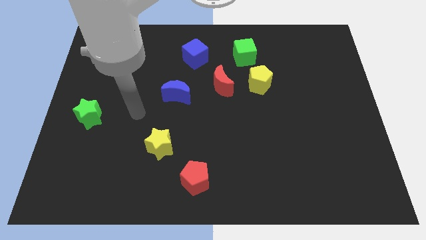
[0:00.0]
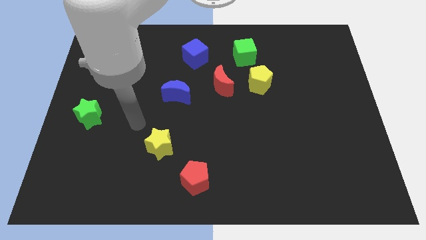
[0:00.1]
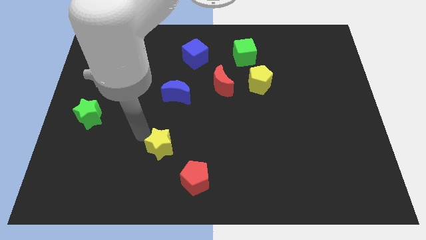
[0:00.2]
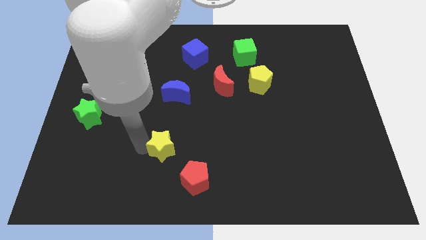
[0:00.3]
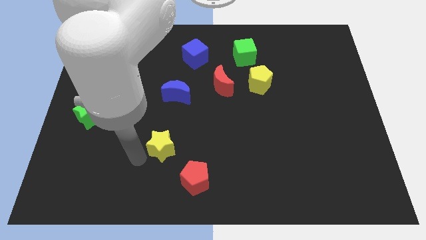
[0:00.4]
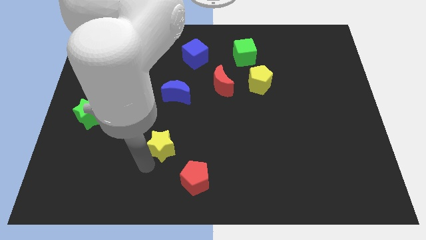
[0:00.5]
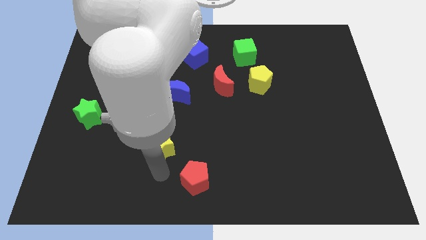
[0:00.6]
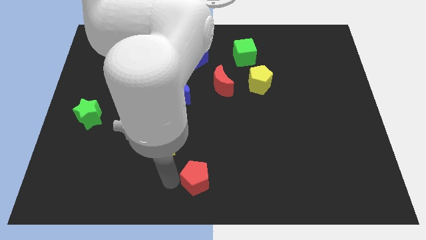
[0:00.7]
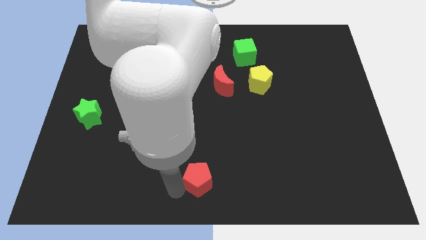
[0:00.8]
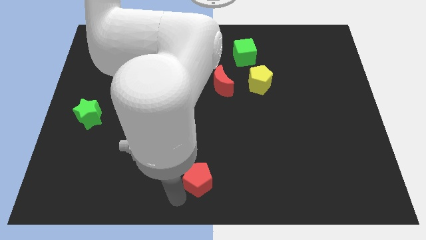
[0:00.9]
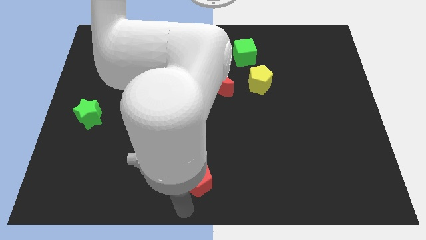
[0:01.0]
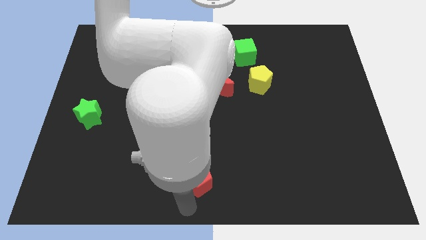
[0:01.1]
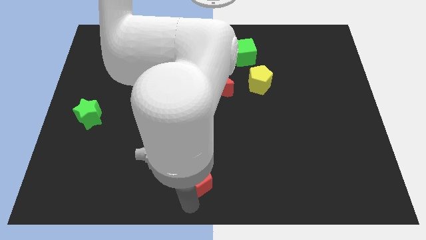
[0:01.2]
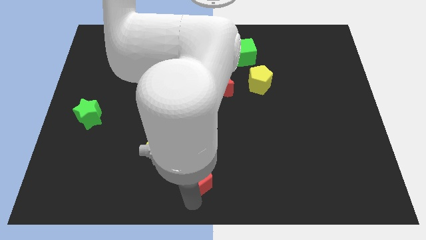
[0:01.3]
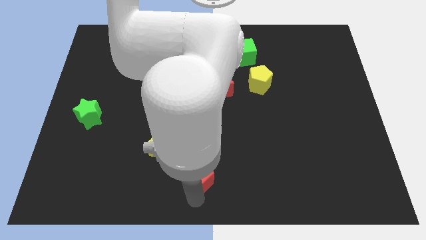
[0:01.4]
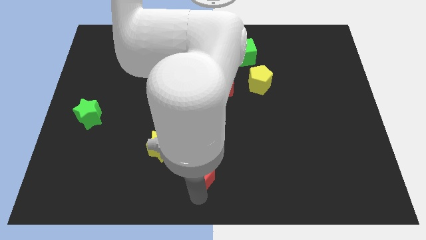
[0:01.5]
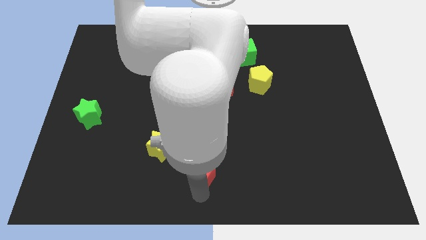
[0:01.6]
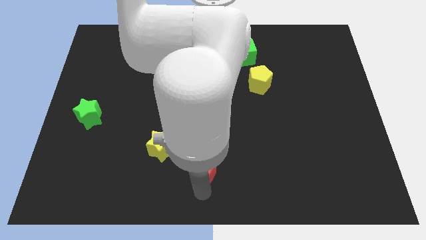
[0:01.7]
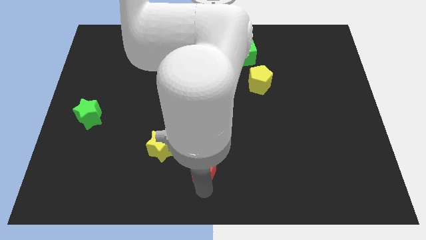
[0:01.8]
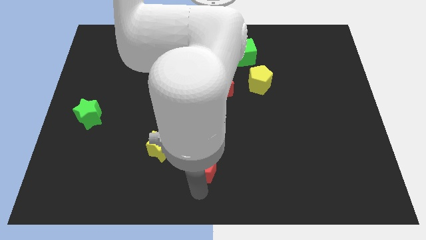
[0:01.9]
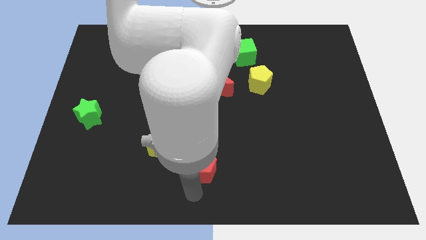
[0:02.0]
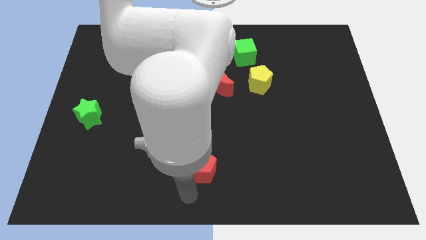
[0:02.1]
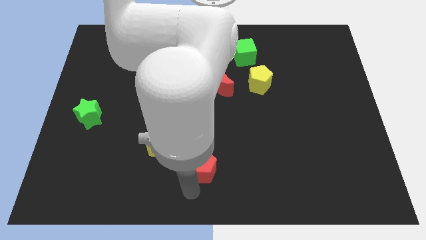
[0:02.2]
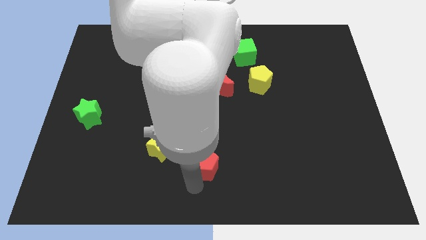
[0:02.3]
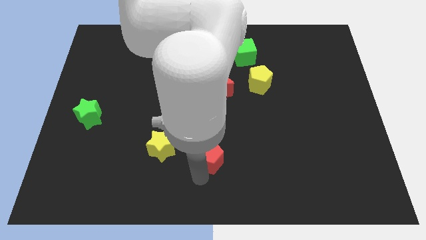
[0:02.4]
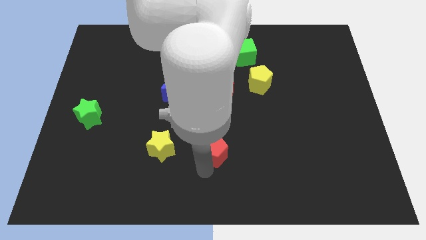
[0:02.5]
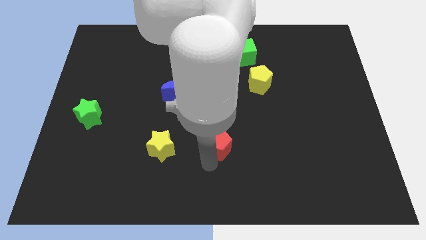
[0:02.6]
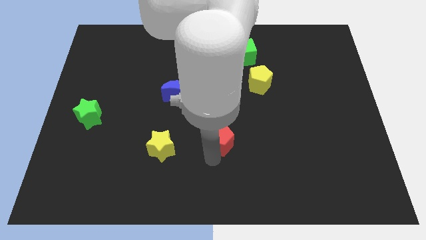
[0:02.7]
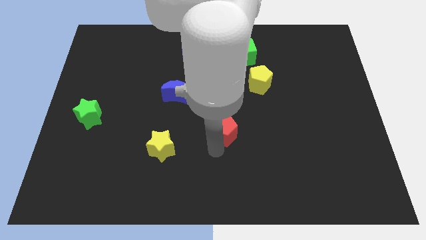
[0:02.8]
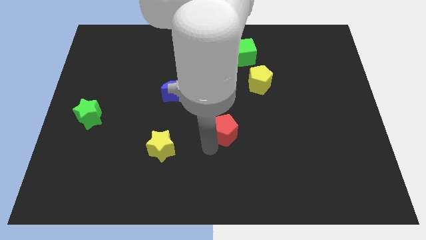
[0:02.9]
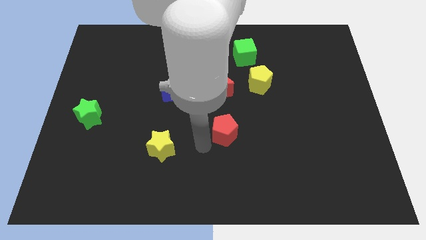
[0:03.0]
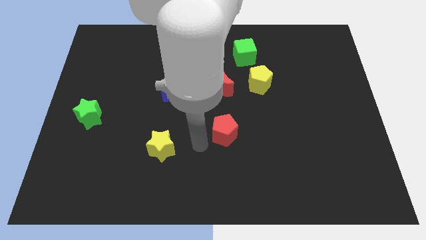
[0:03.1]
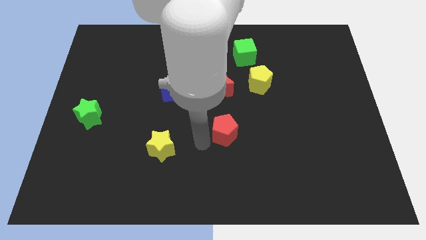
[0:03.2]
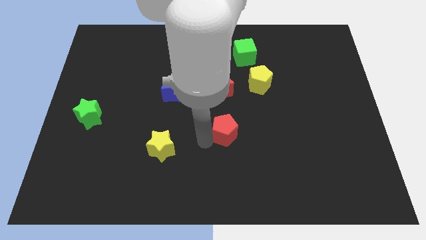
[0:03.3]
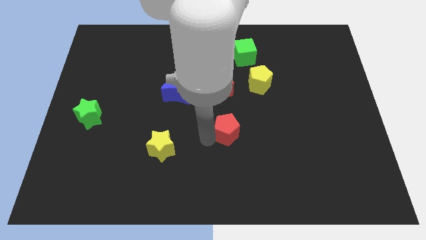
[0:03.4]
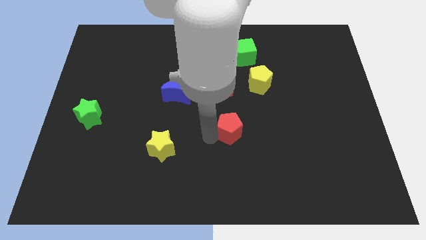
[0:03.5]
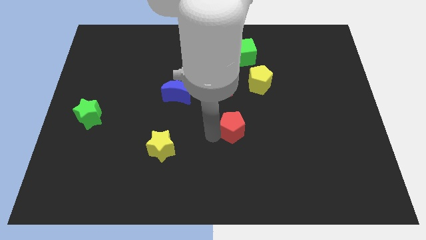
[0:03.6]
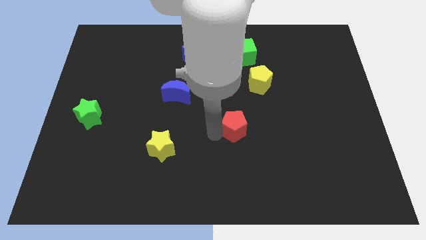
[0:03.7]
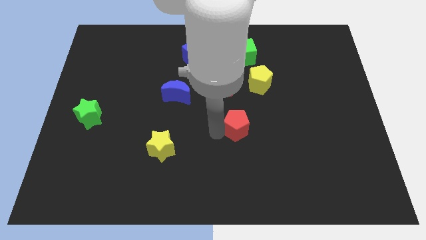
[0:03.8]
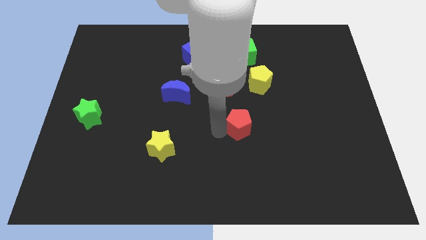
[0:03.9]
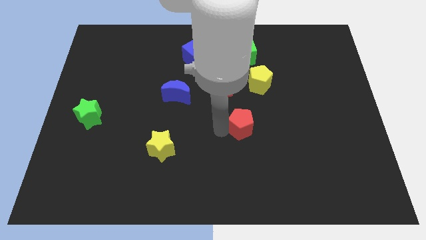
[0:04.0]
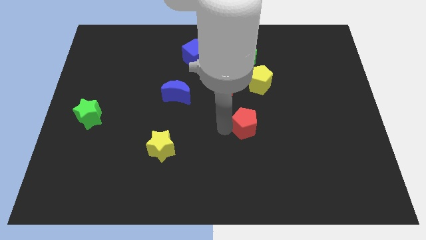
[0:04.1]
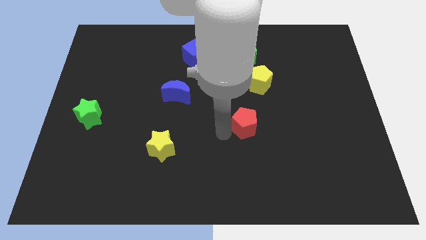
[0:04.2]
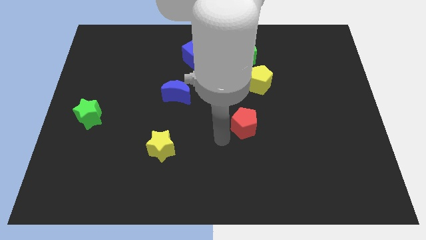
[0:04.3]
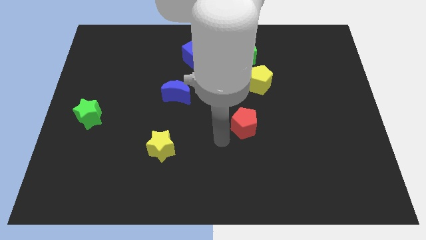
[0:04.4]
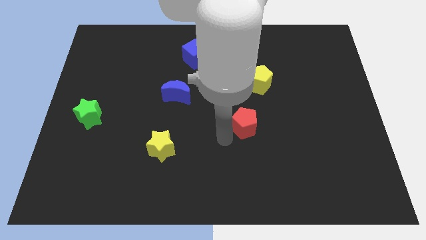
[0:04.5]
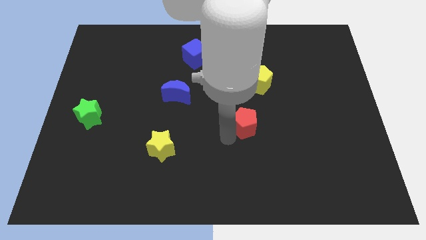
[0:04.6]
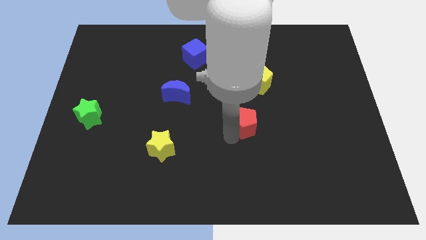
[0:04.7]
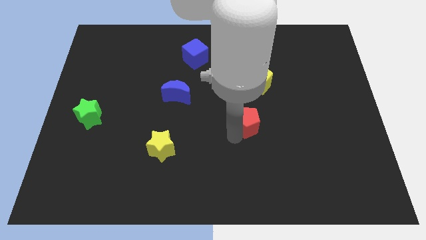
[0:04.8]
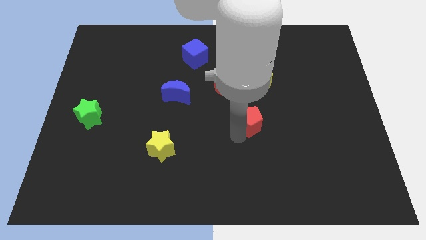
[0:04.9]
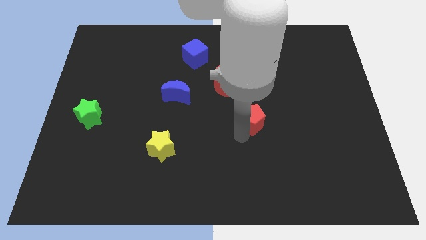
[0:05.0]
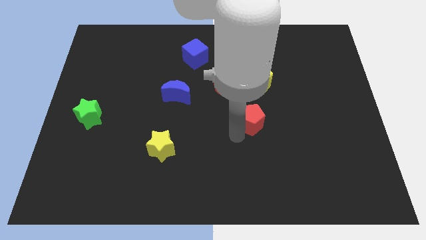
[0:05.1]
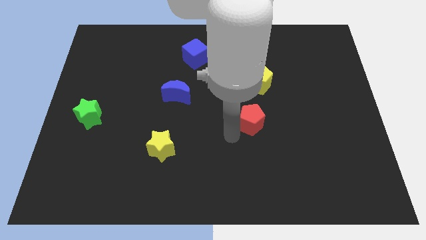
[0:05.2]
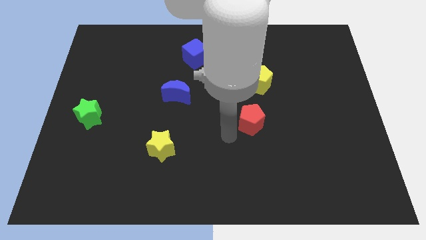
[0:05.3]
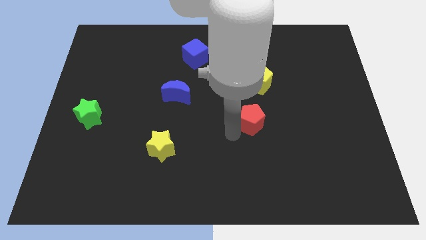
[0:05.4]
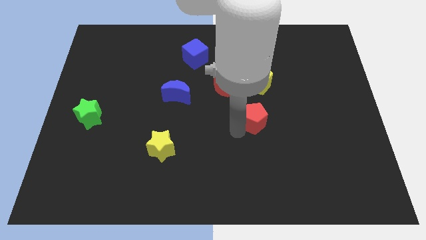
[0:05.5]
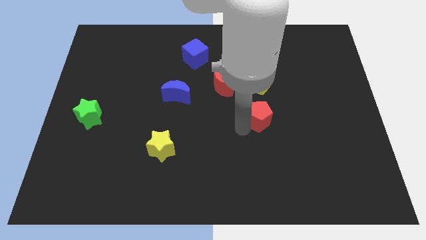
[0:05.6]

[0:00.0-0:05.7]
push the red pentagon diagonally up and right

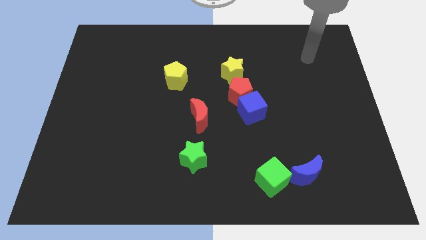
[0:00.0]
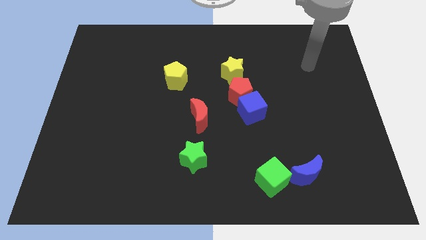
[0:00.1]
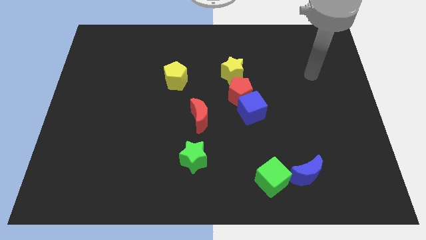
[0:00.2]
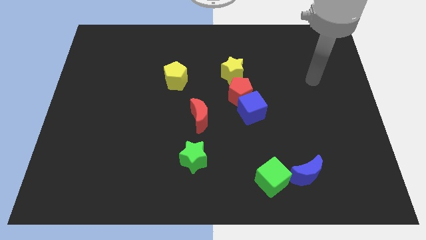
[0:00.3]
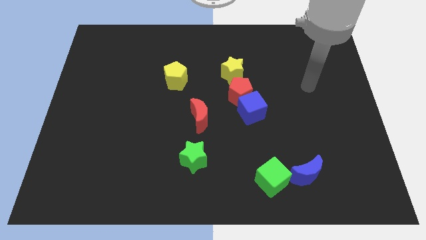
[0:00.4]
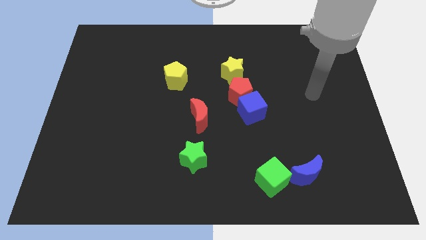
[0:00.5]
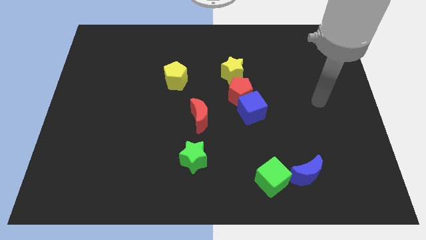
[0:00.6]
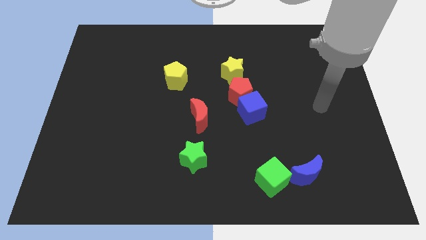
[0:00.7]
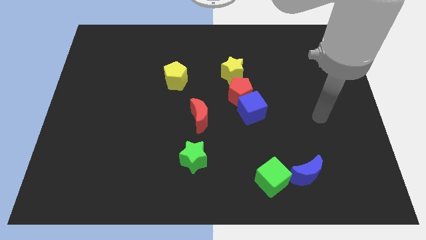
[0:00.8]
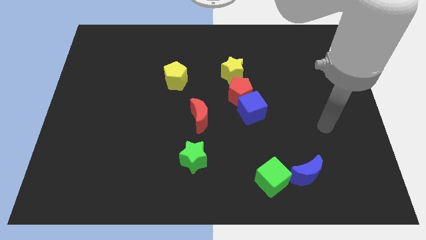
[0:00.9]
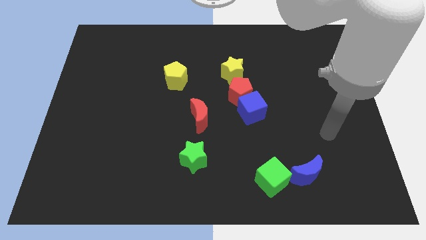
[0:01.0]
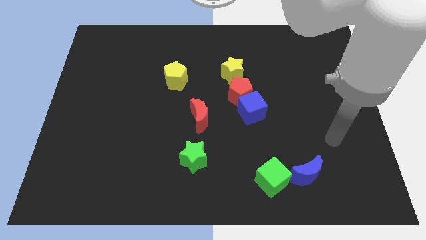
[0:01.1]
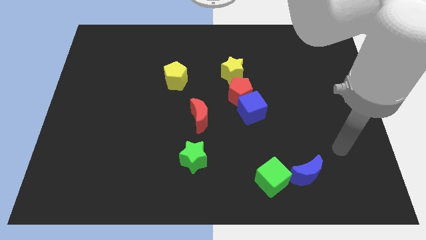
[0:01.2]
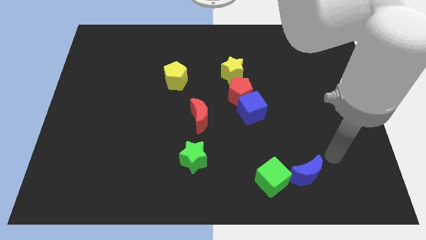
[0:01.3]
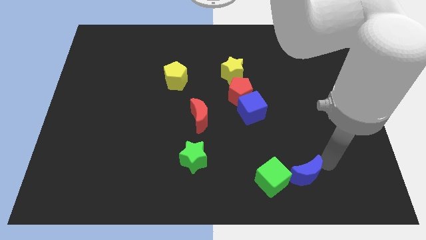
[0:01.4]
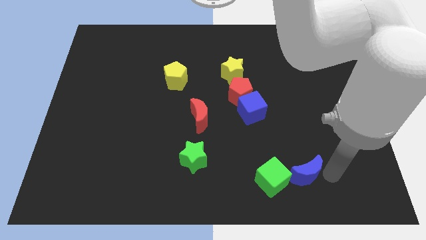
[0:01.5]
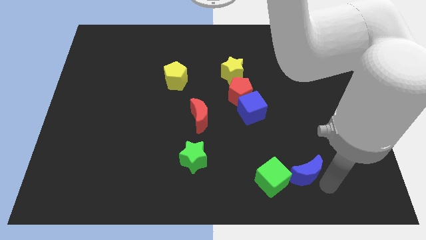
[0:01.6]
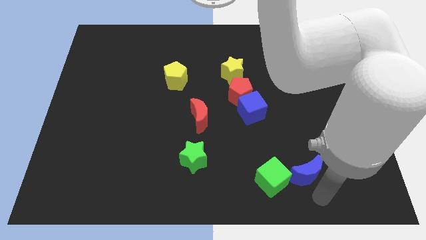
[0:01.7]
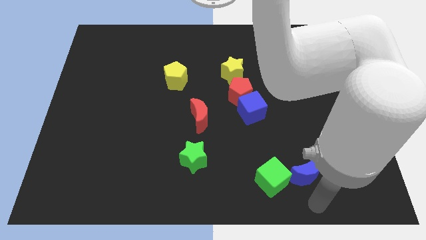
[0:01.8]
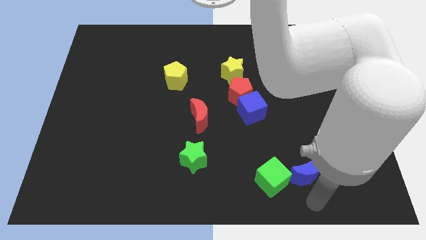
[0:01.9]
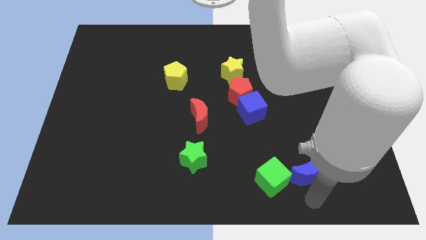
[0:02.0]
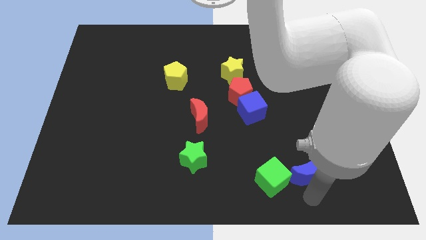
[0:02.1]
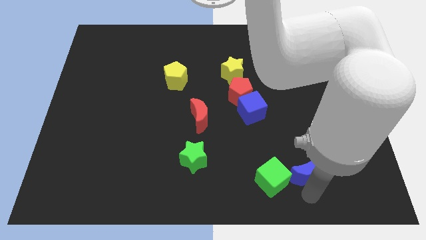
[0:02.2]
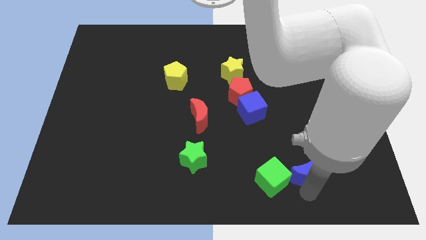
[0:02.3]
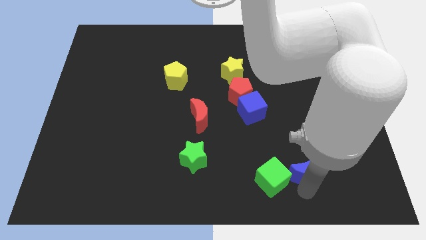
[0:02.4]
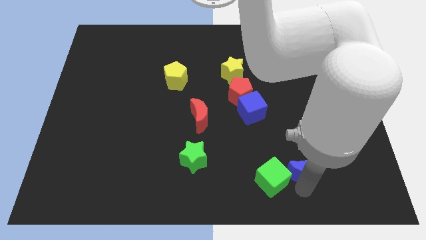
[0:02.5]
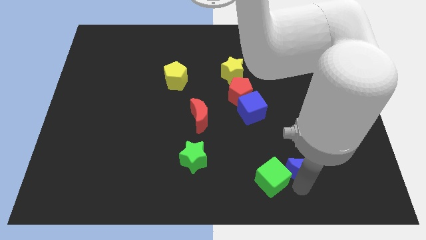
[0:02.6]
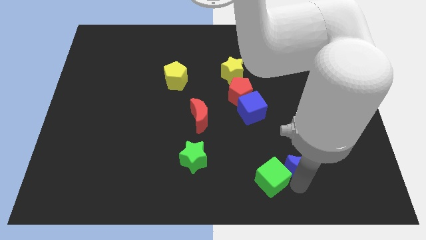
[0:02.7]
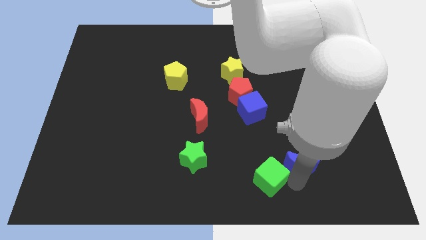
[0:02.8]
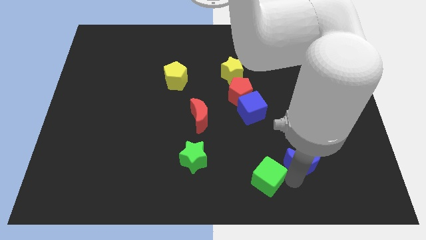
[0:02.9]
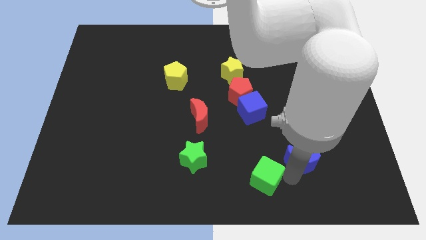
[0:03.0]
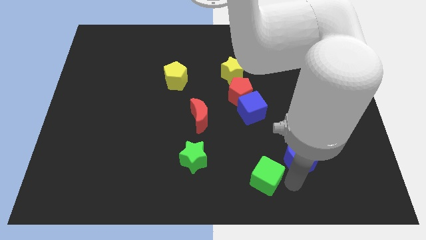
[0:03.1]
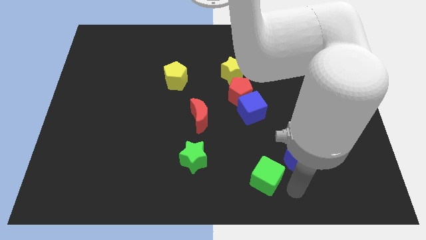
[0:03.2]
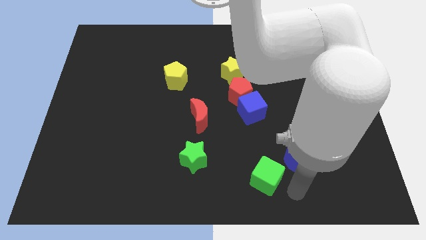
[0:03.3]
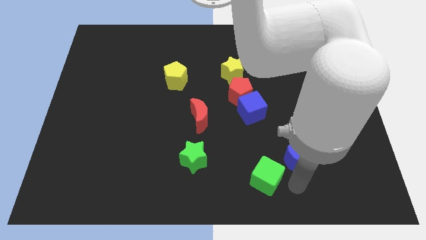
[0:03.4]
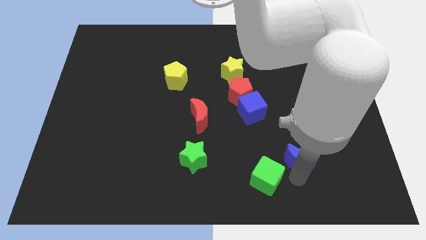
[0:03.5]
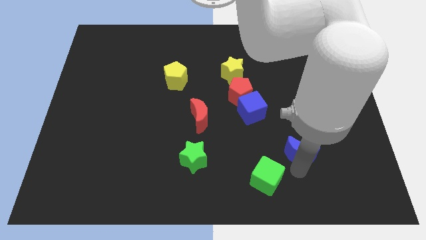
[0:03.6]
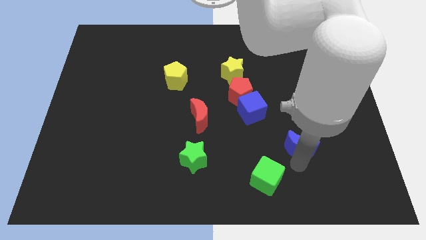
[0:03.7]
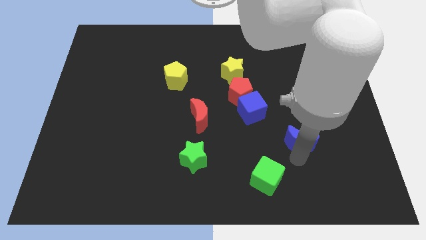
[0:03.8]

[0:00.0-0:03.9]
slightly push the blue moon up
